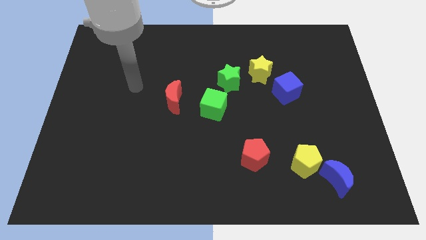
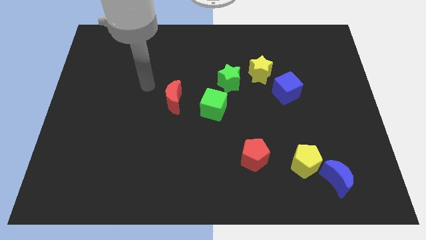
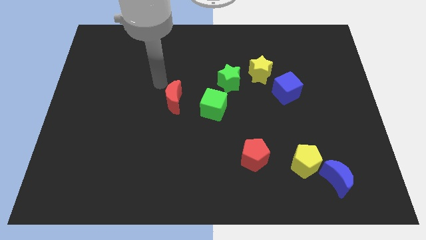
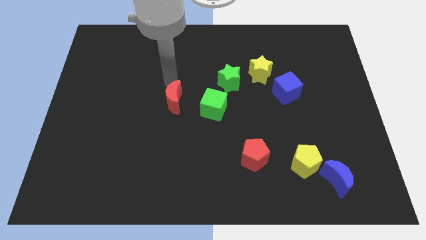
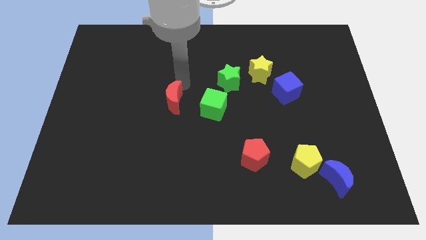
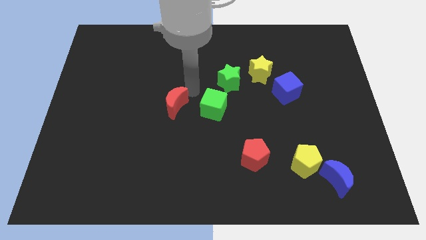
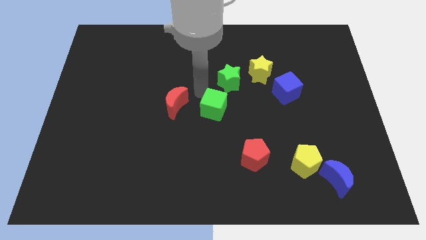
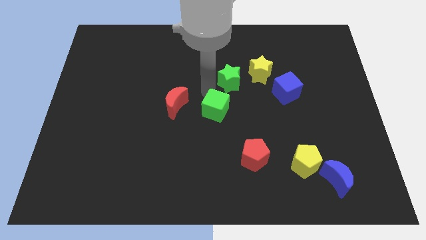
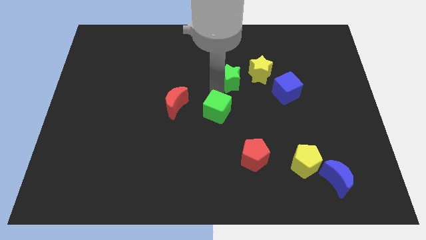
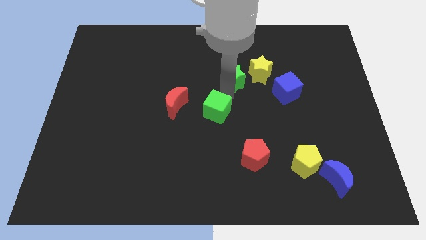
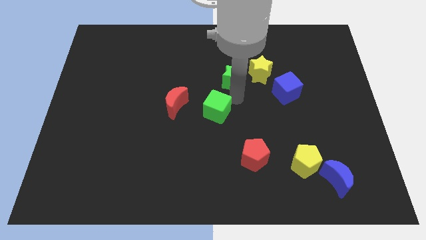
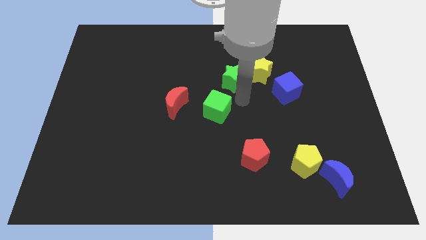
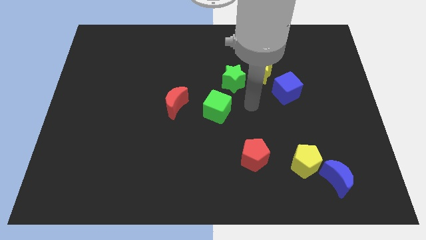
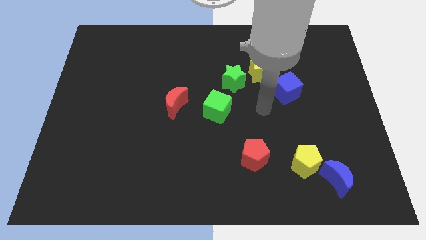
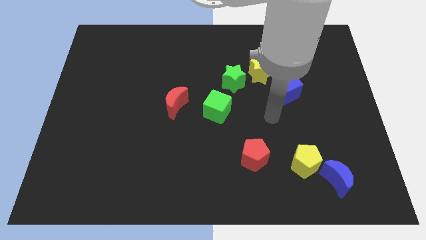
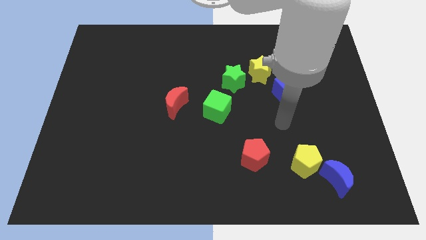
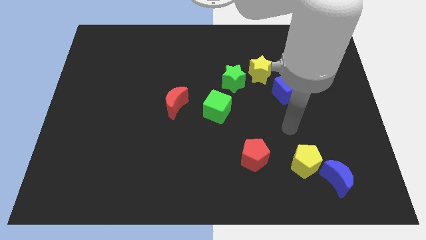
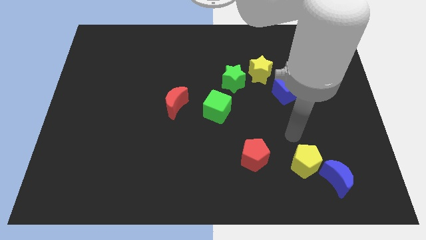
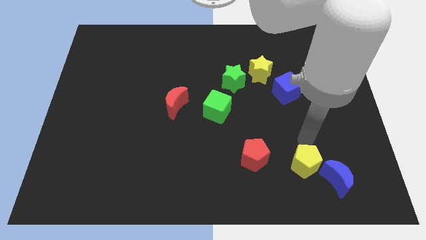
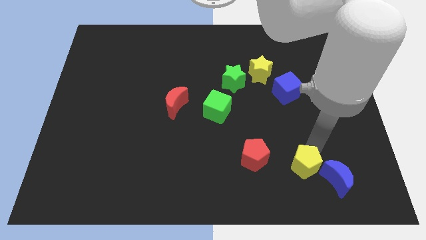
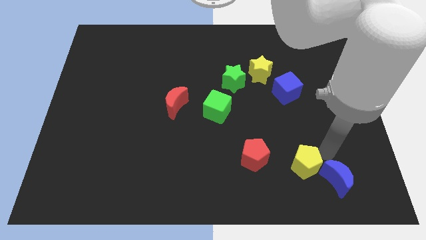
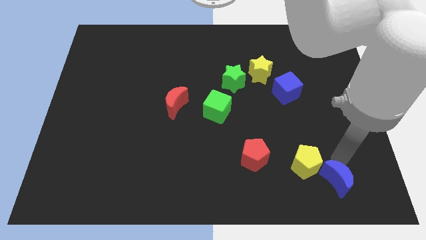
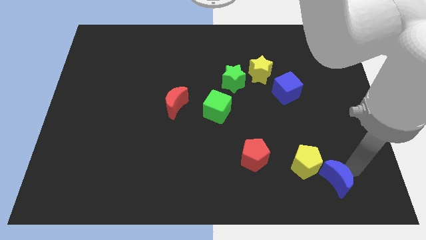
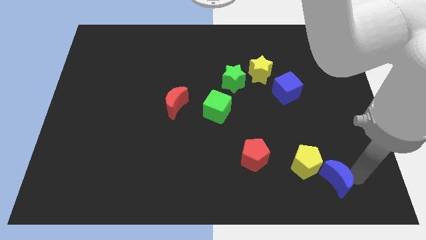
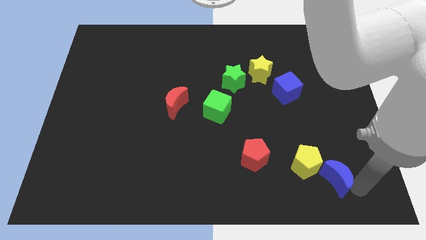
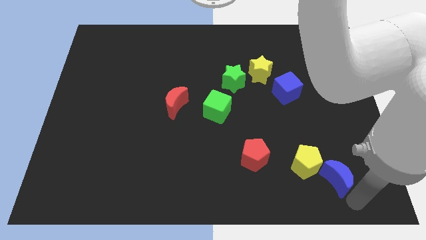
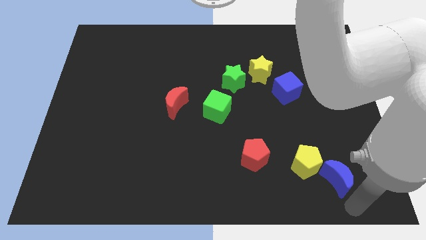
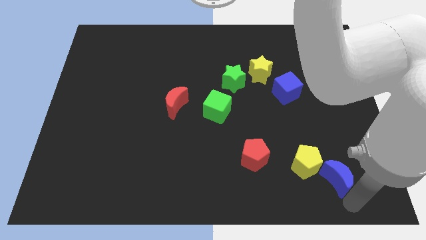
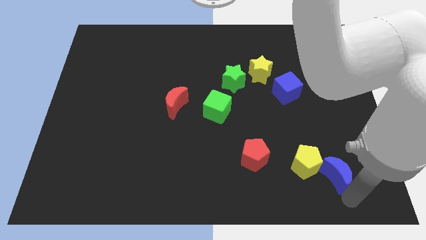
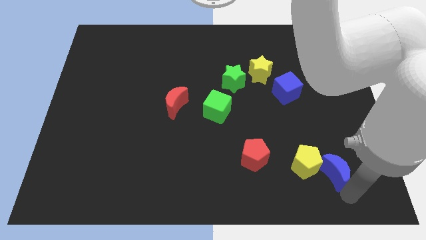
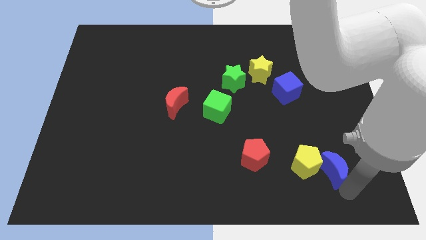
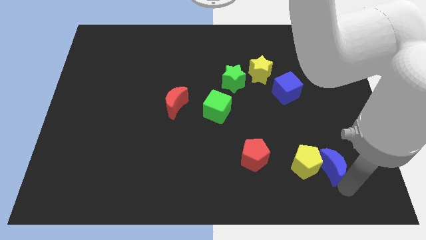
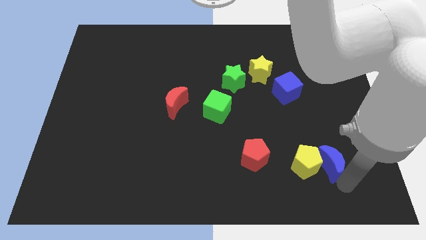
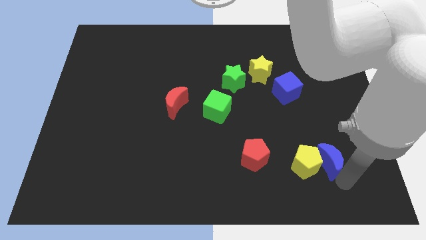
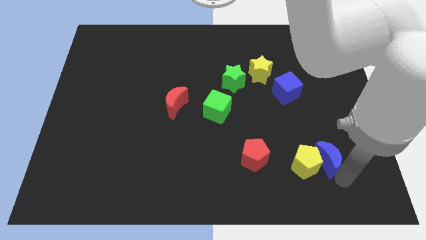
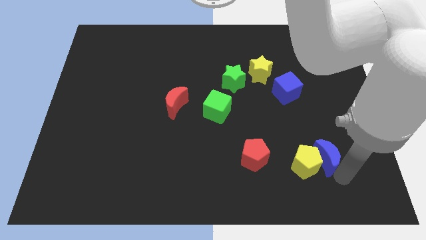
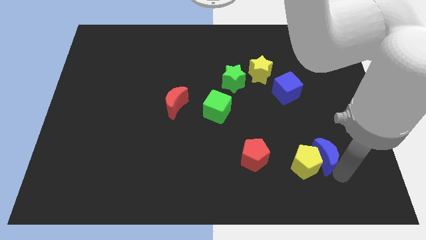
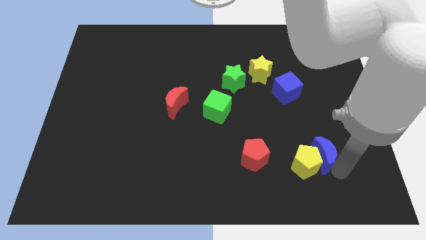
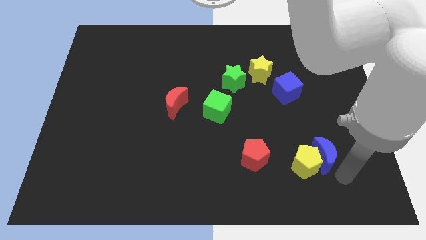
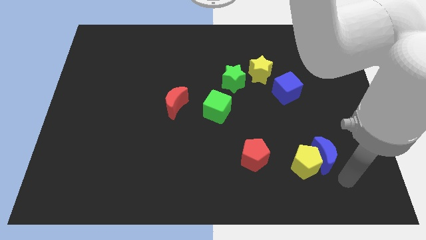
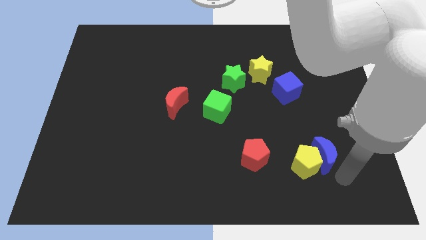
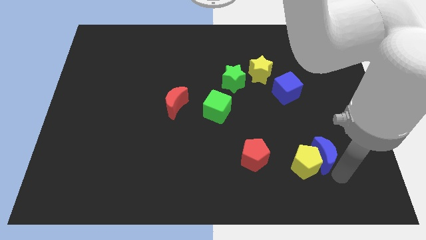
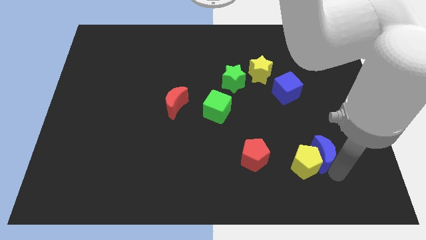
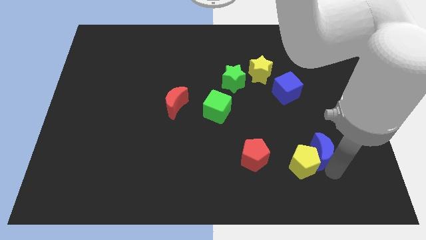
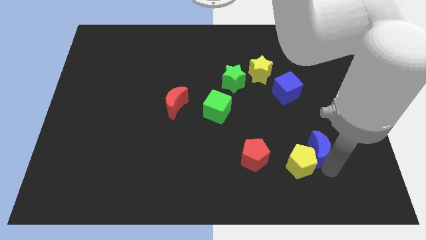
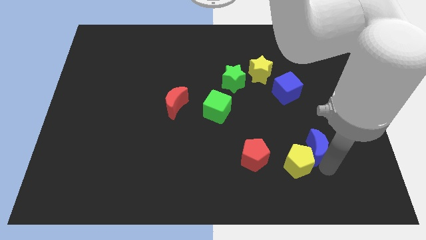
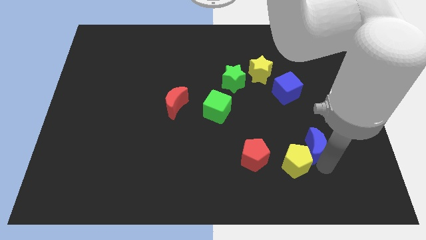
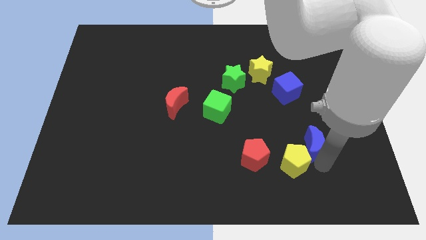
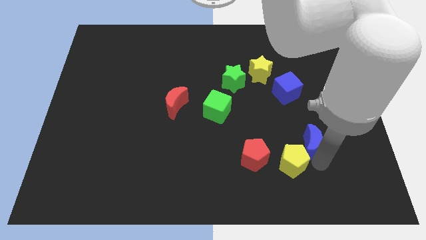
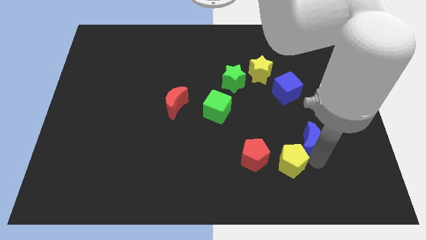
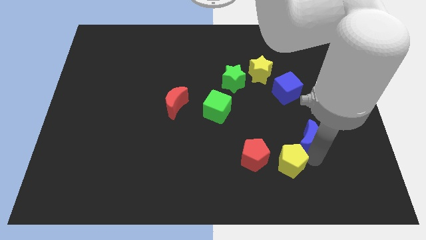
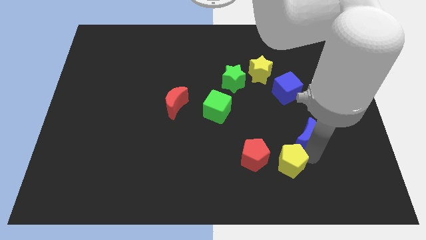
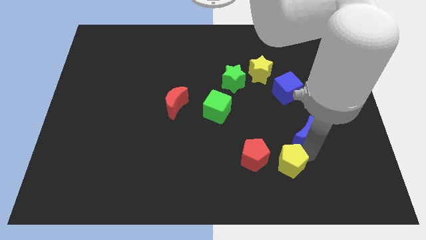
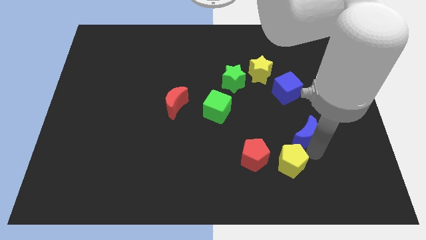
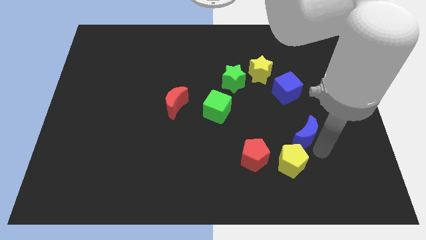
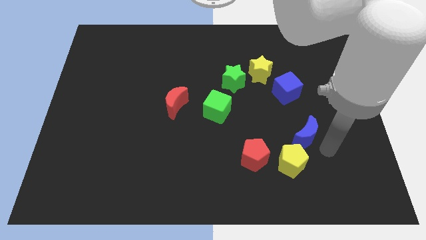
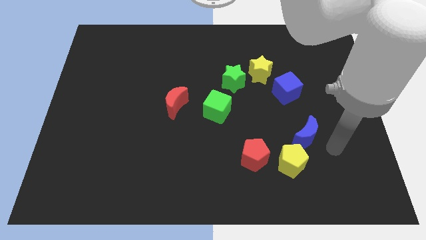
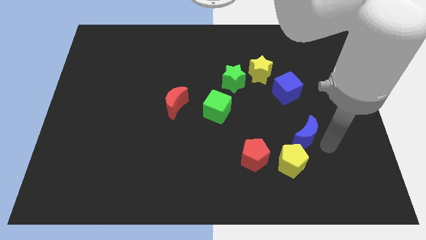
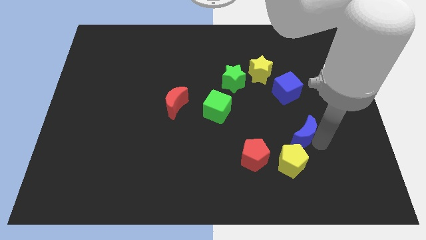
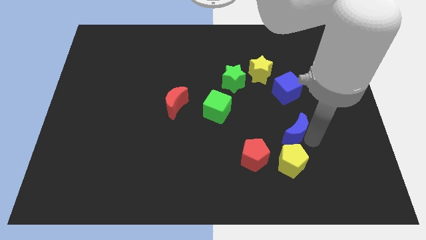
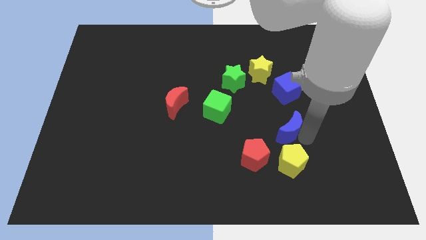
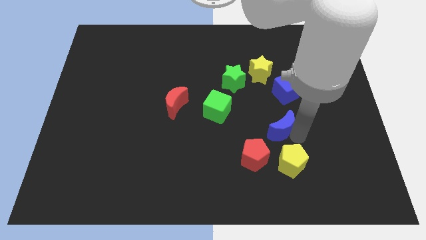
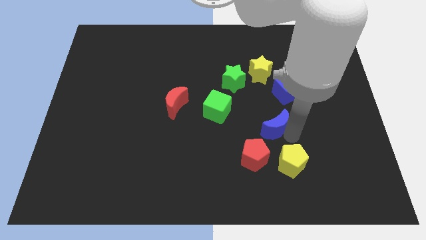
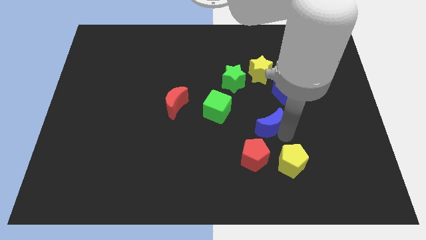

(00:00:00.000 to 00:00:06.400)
put the blue moon just right of the green cube

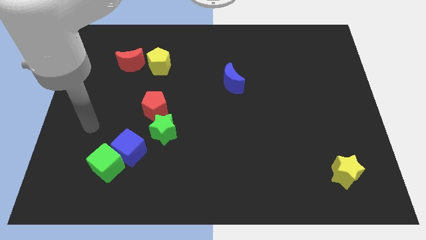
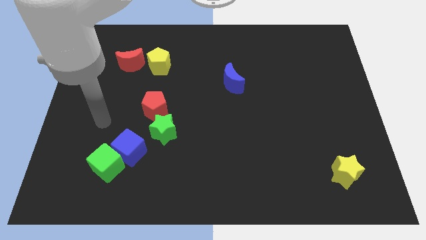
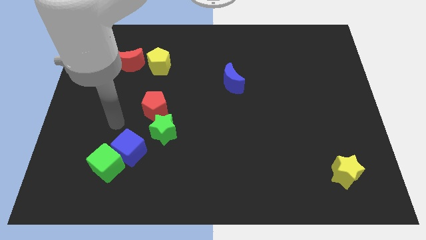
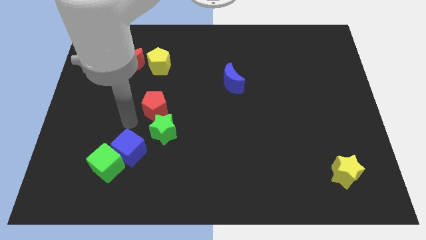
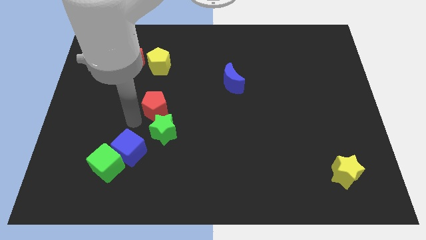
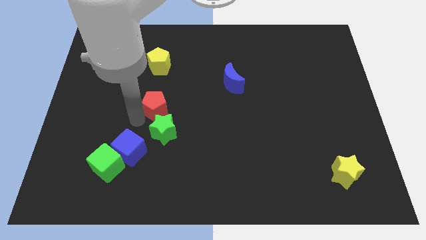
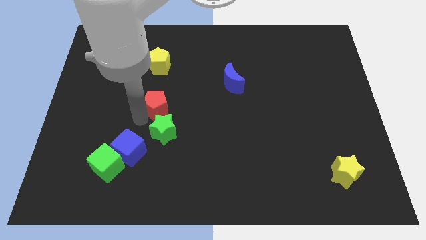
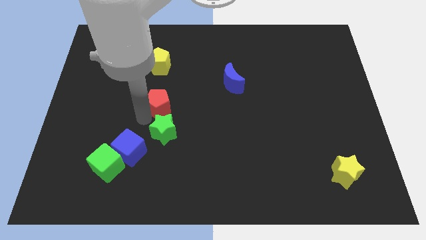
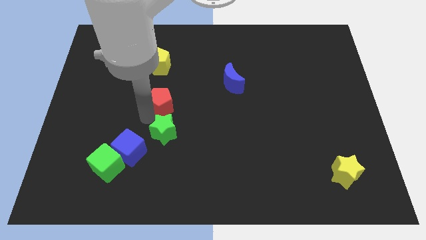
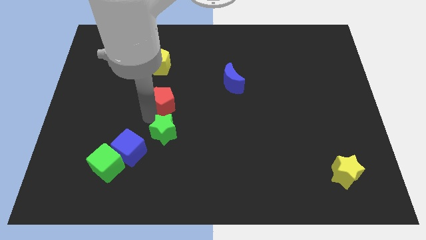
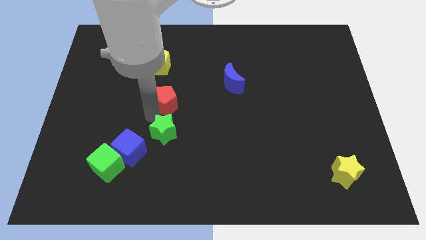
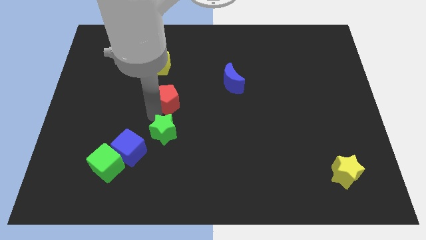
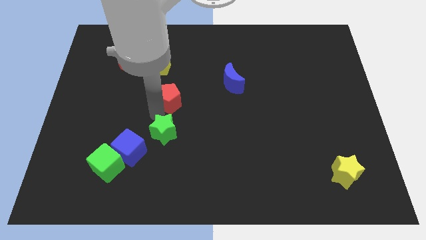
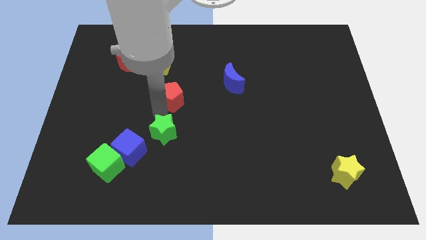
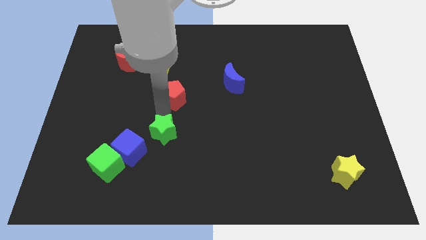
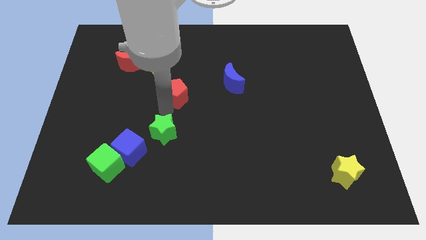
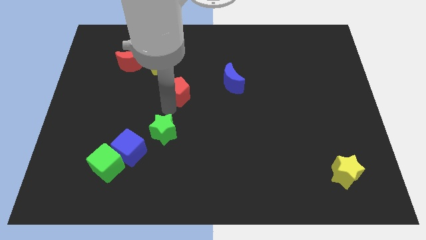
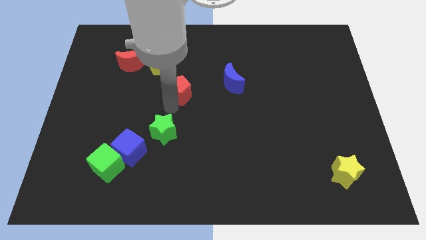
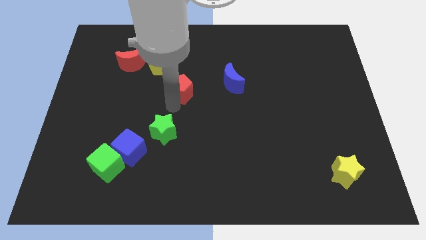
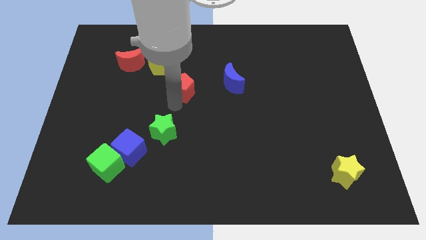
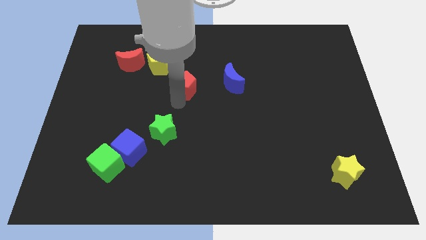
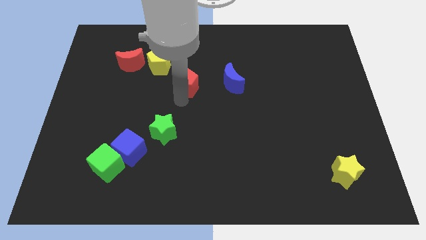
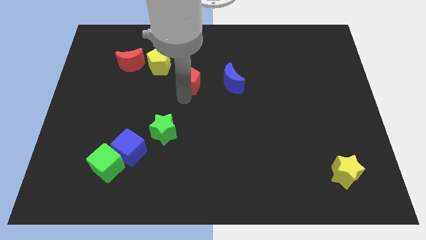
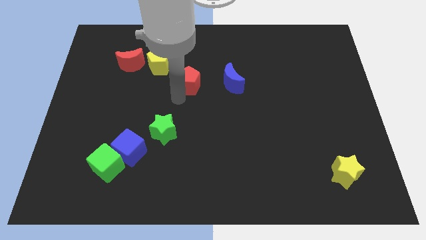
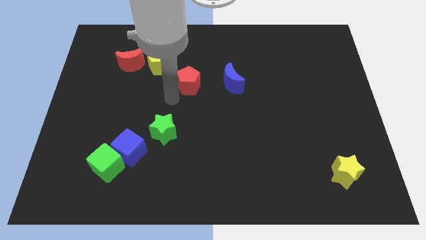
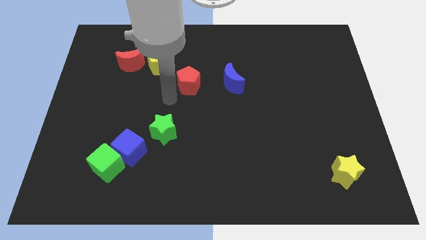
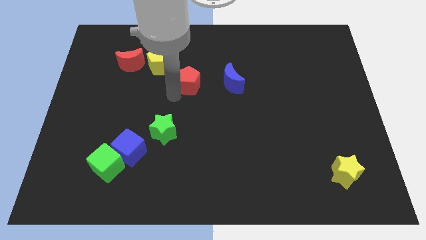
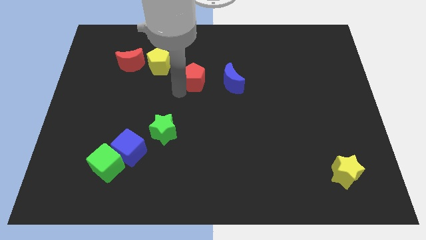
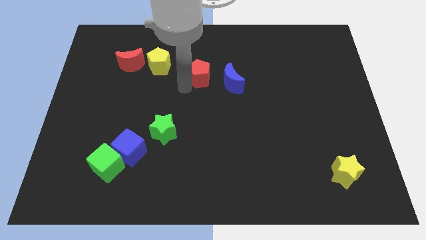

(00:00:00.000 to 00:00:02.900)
push the red pentagon to the top left of the blue moon
